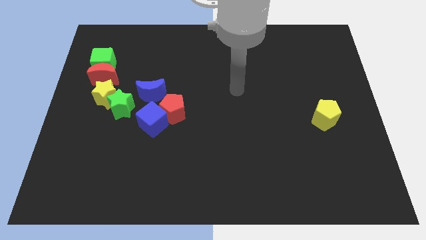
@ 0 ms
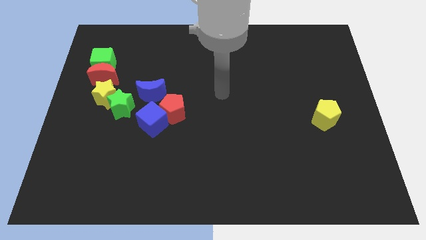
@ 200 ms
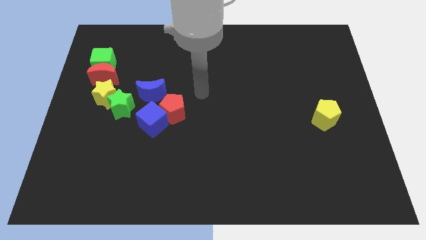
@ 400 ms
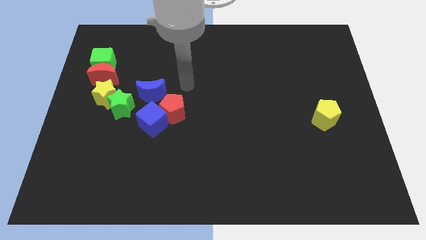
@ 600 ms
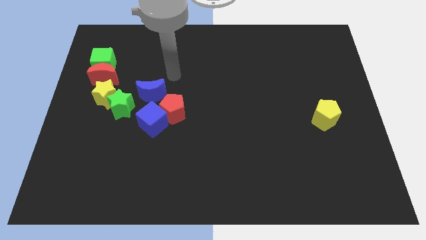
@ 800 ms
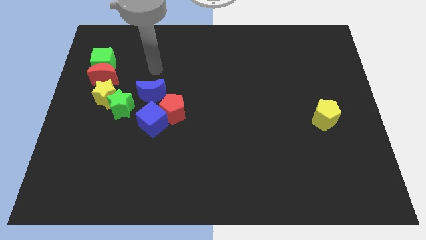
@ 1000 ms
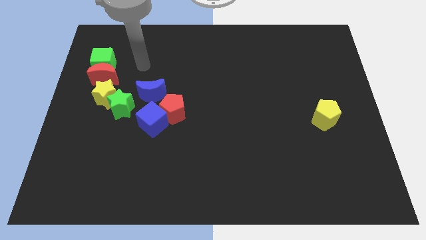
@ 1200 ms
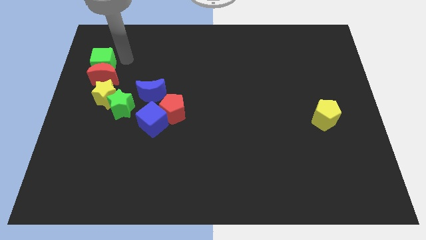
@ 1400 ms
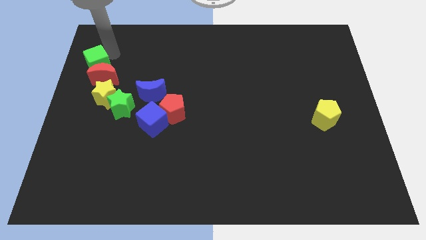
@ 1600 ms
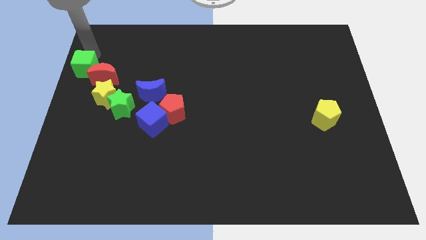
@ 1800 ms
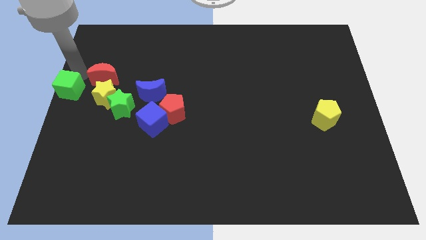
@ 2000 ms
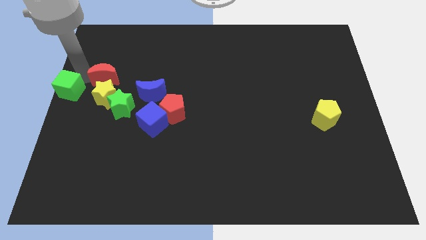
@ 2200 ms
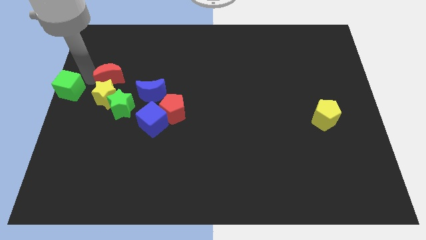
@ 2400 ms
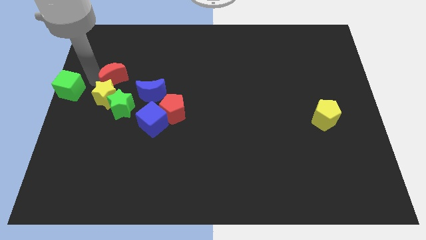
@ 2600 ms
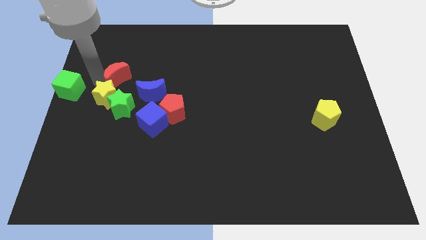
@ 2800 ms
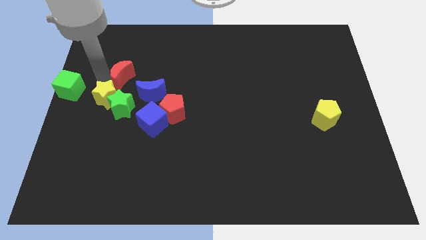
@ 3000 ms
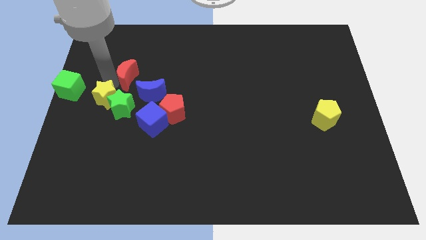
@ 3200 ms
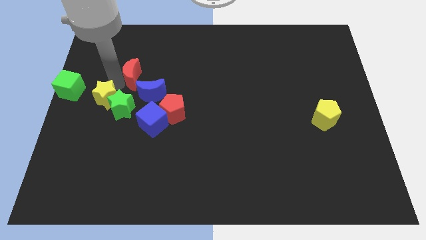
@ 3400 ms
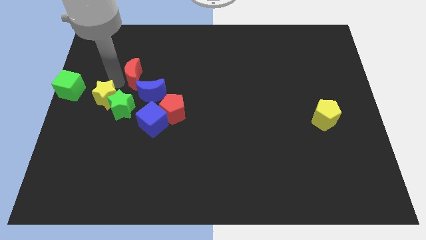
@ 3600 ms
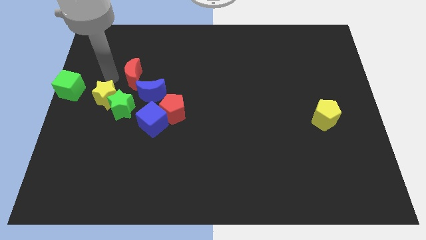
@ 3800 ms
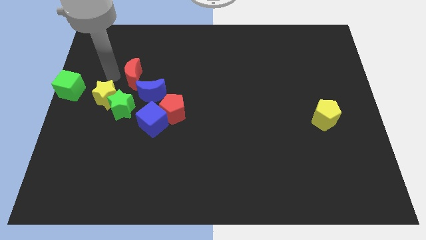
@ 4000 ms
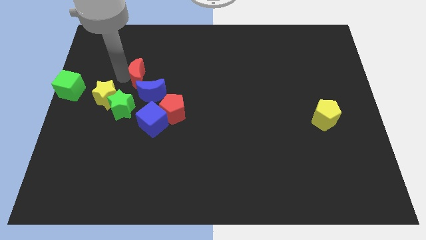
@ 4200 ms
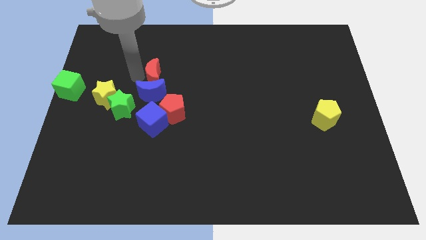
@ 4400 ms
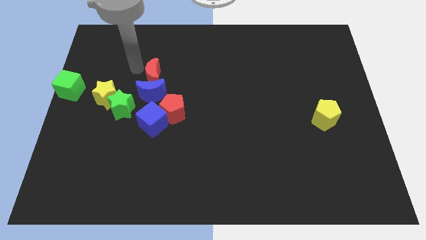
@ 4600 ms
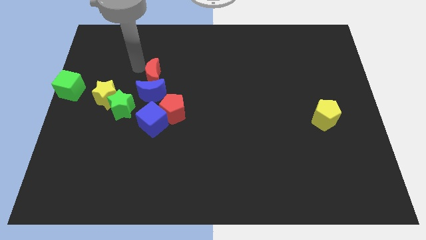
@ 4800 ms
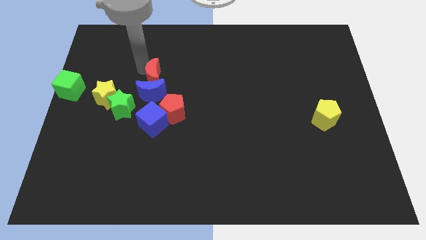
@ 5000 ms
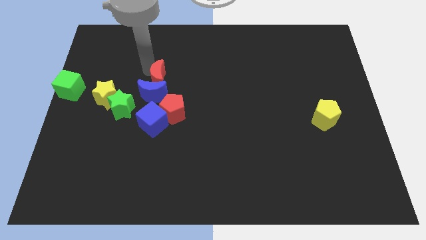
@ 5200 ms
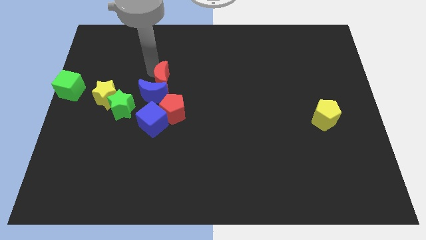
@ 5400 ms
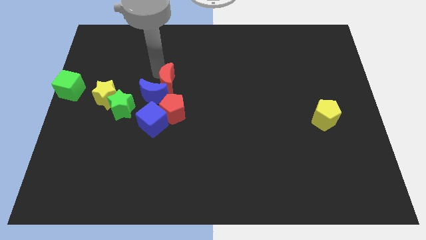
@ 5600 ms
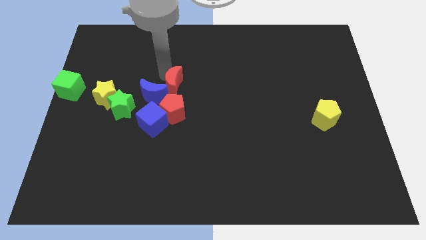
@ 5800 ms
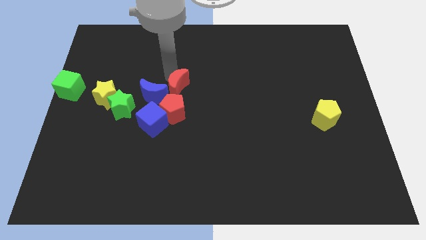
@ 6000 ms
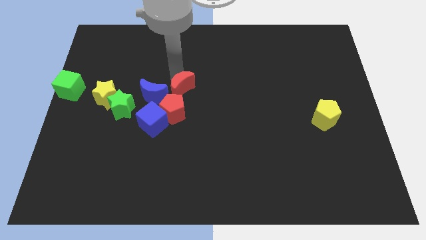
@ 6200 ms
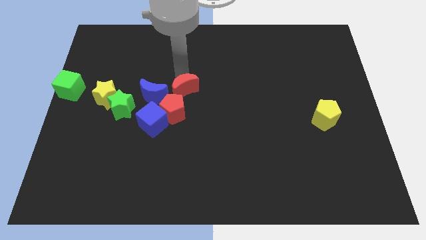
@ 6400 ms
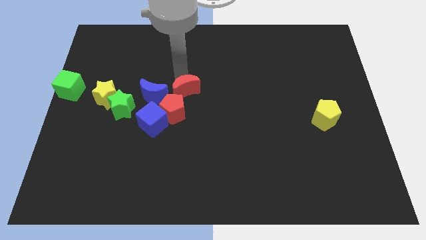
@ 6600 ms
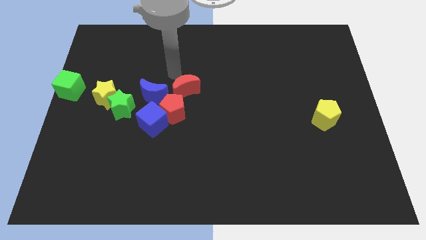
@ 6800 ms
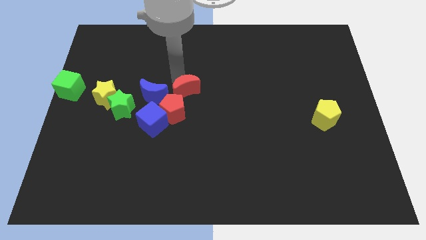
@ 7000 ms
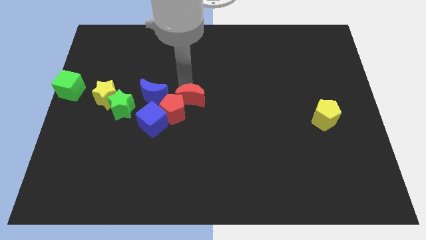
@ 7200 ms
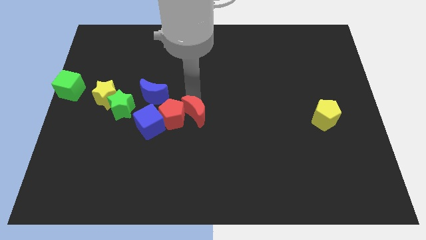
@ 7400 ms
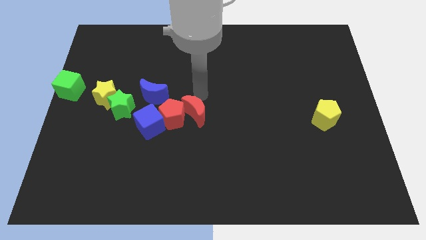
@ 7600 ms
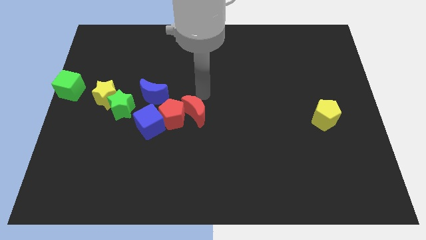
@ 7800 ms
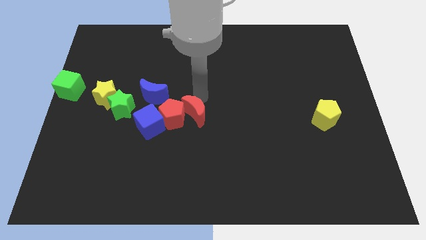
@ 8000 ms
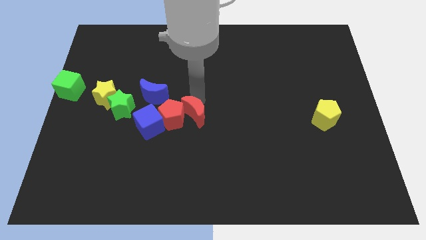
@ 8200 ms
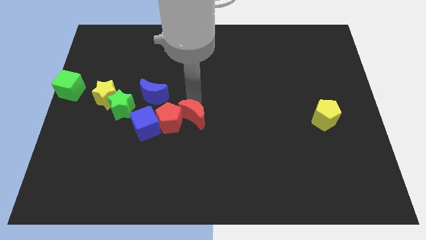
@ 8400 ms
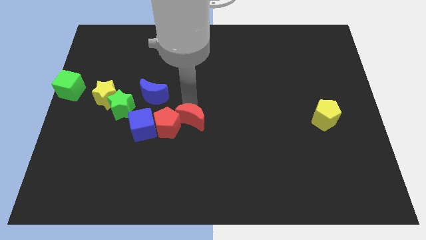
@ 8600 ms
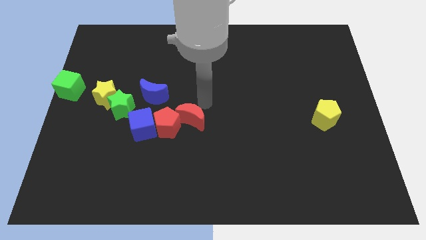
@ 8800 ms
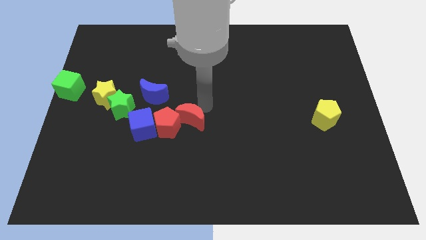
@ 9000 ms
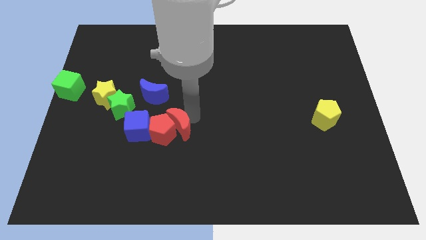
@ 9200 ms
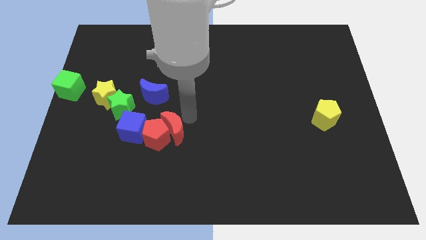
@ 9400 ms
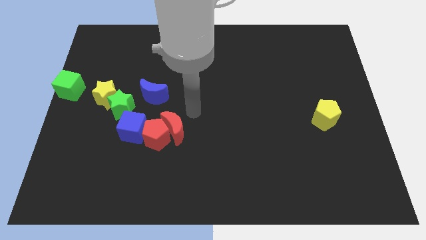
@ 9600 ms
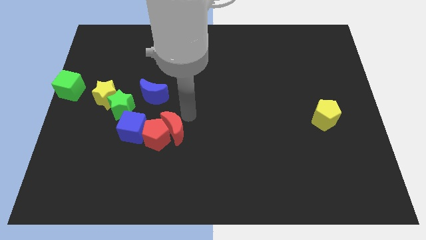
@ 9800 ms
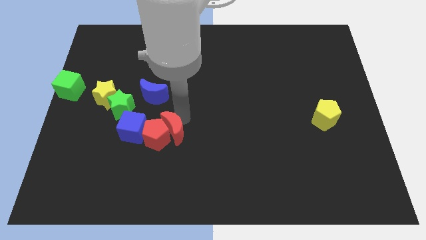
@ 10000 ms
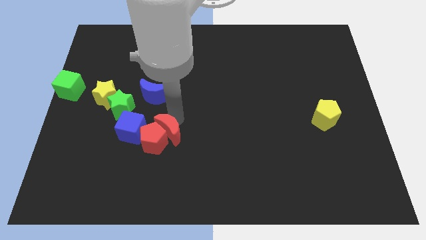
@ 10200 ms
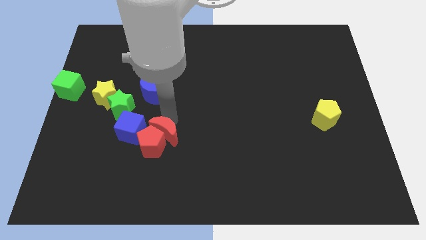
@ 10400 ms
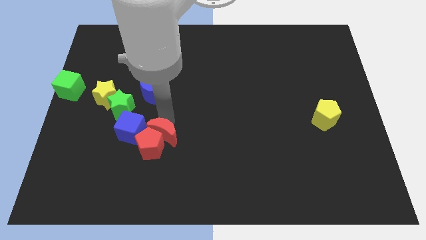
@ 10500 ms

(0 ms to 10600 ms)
slide the red moon to the bottom right of the blue cube

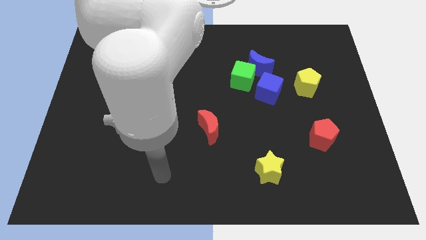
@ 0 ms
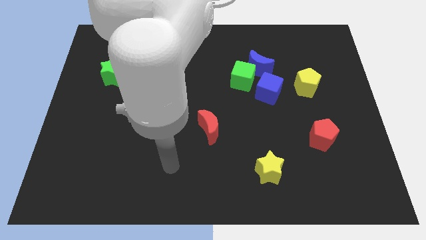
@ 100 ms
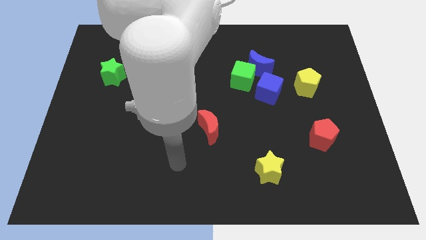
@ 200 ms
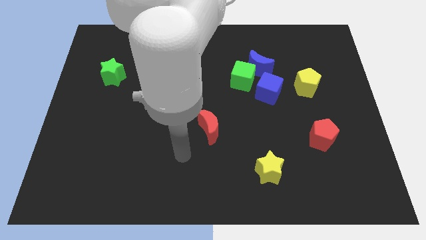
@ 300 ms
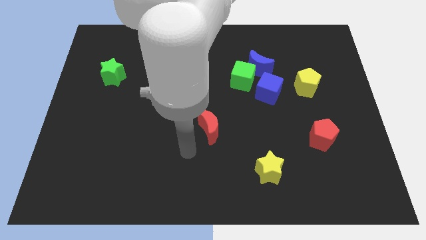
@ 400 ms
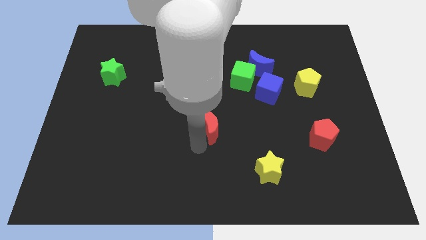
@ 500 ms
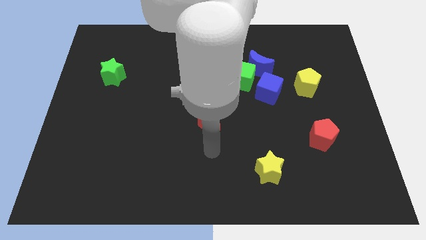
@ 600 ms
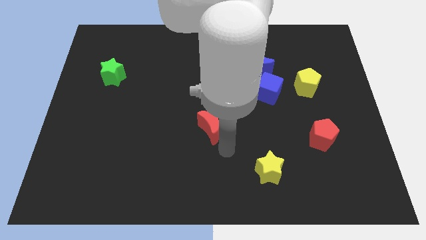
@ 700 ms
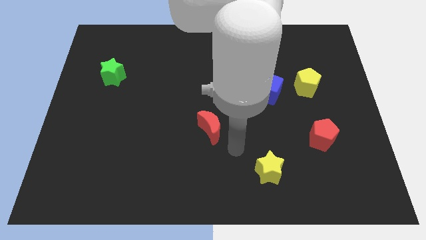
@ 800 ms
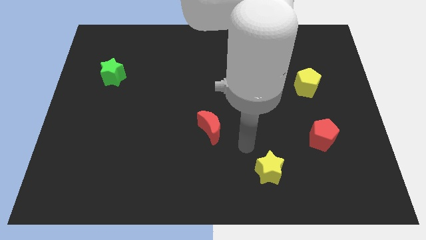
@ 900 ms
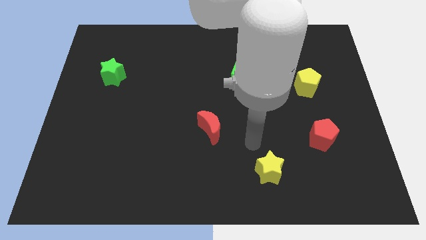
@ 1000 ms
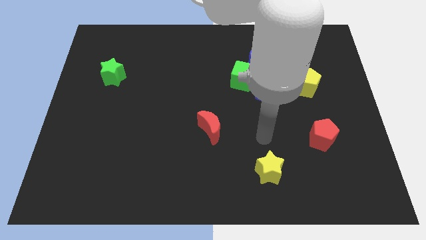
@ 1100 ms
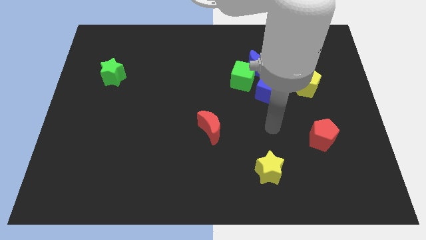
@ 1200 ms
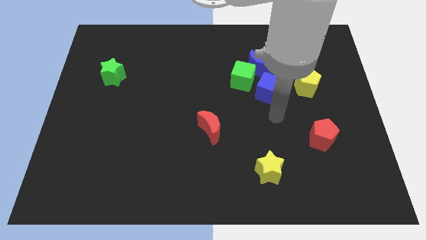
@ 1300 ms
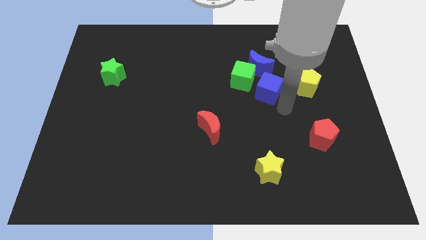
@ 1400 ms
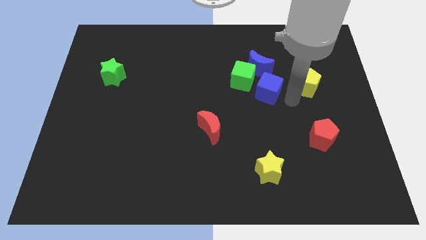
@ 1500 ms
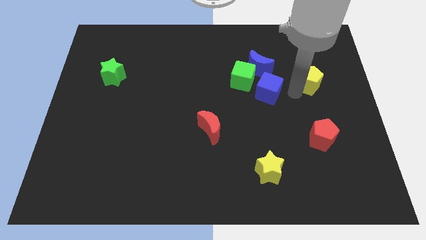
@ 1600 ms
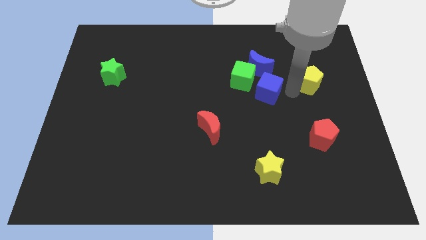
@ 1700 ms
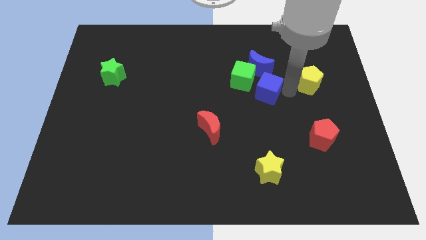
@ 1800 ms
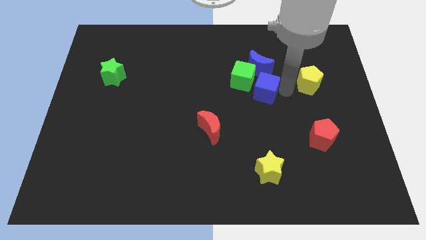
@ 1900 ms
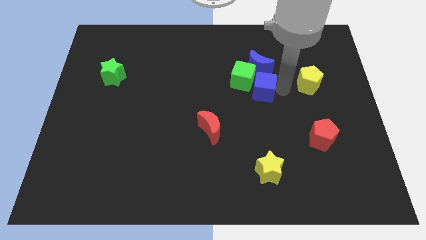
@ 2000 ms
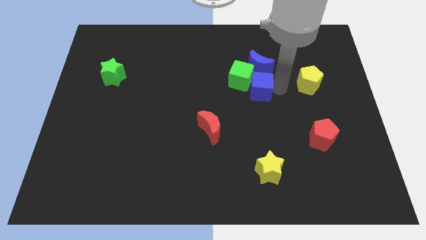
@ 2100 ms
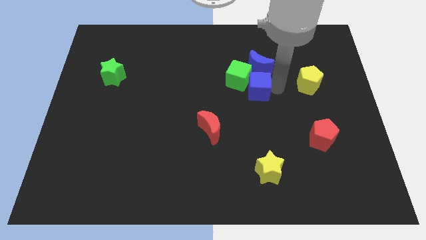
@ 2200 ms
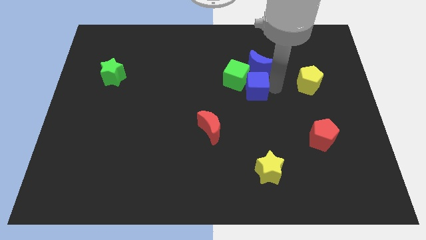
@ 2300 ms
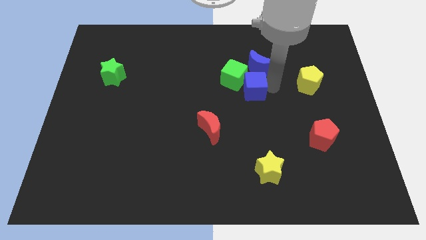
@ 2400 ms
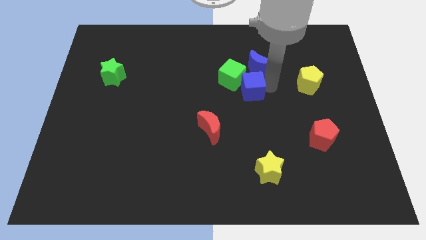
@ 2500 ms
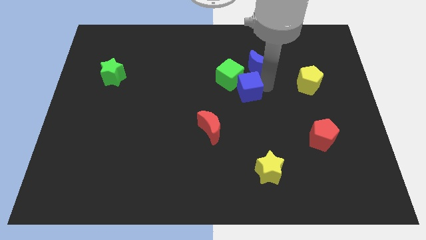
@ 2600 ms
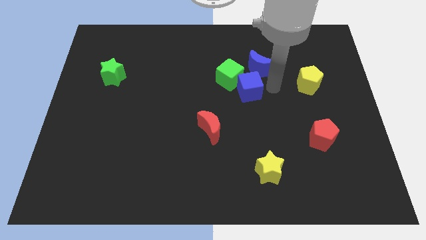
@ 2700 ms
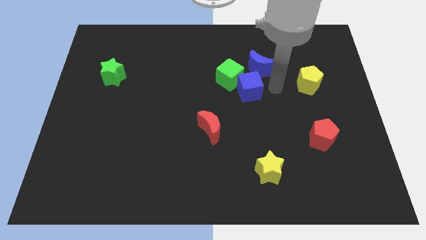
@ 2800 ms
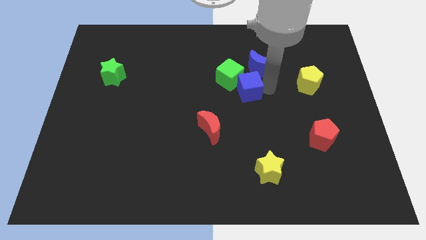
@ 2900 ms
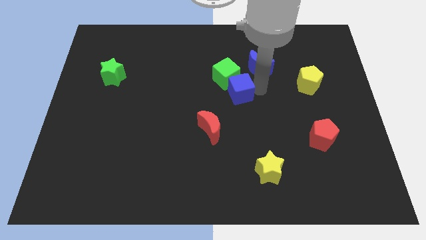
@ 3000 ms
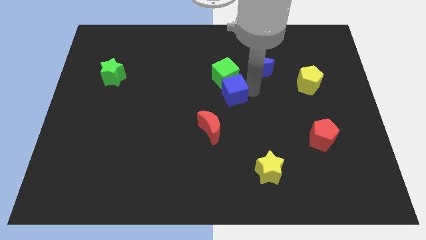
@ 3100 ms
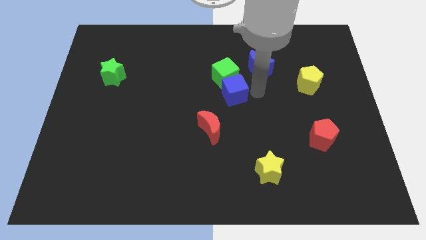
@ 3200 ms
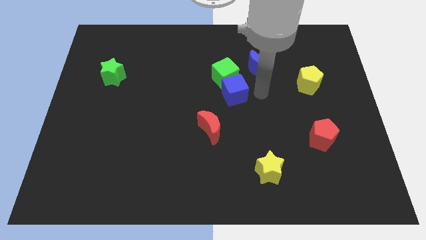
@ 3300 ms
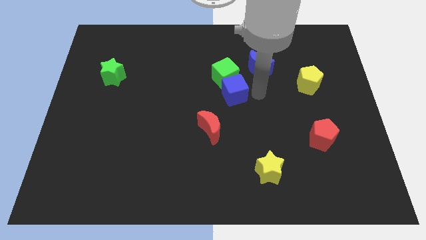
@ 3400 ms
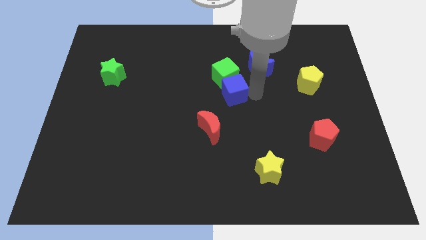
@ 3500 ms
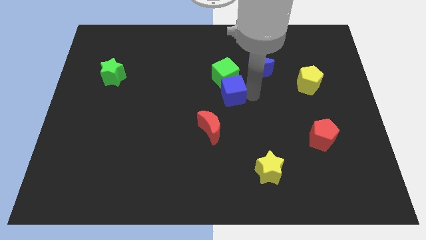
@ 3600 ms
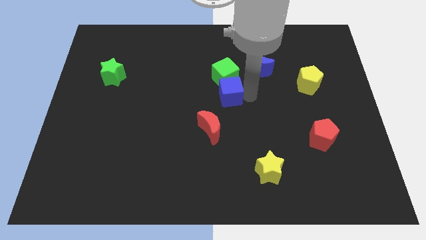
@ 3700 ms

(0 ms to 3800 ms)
move the blue cube to the top side of the red moon
